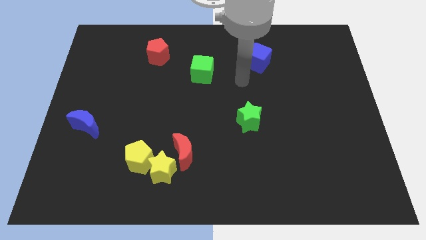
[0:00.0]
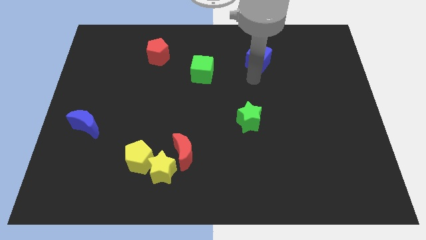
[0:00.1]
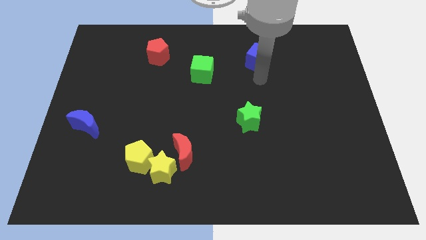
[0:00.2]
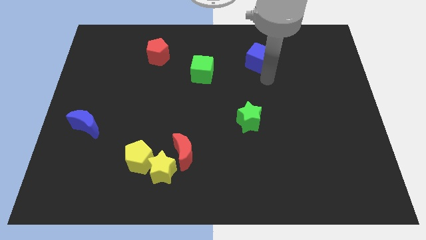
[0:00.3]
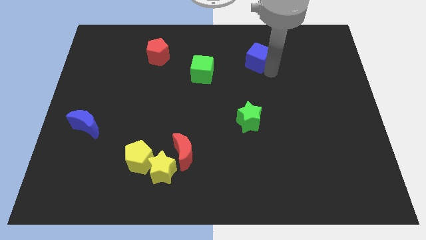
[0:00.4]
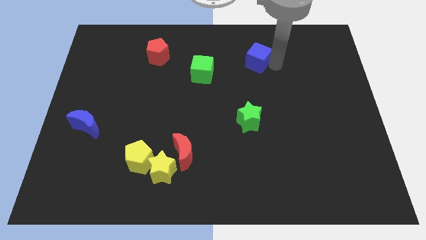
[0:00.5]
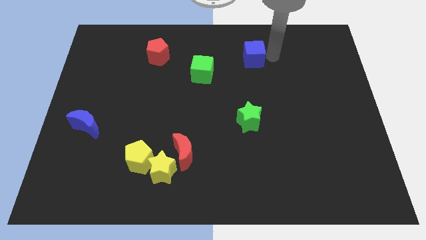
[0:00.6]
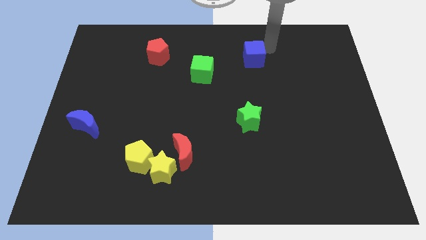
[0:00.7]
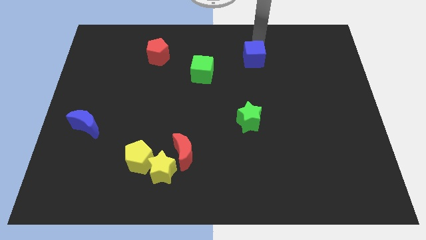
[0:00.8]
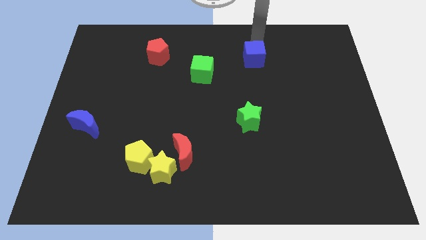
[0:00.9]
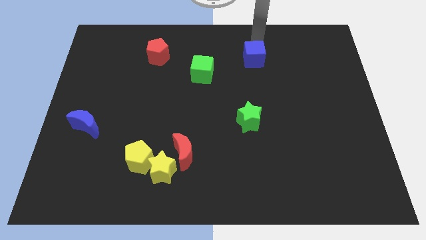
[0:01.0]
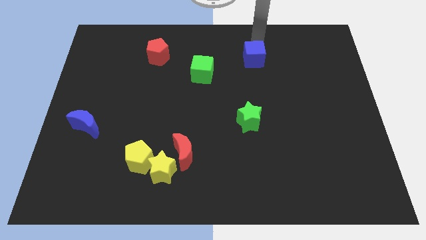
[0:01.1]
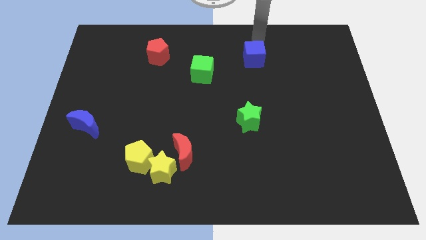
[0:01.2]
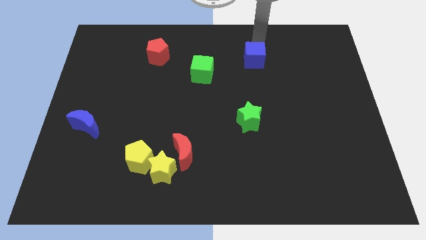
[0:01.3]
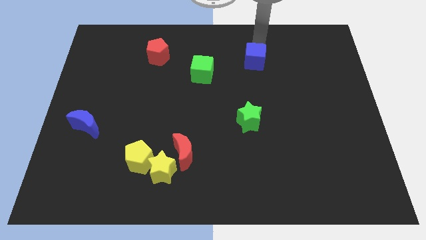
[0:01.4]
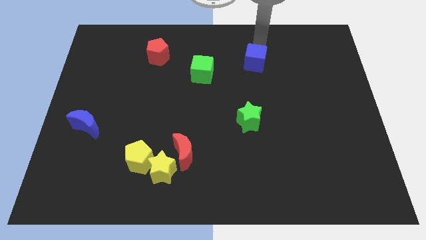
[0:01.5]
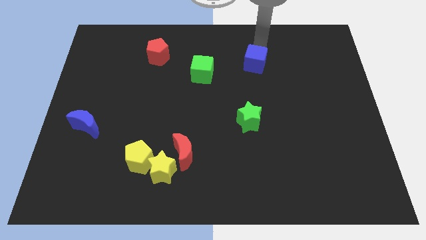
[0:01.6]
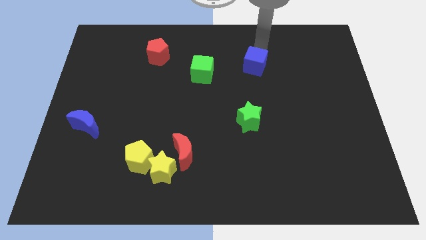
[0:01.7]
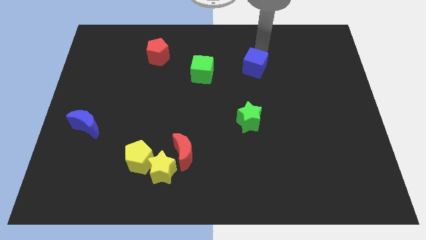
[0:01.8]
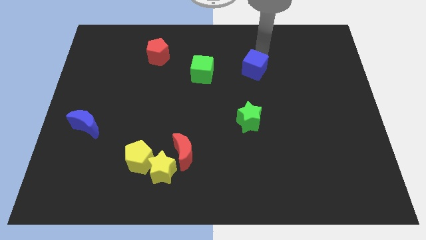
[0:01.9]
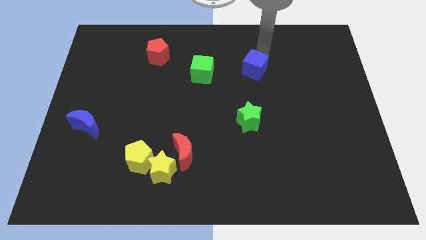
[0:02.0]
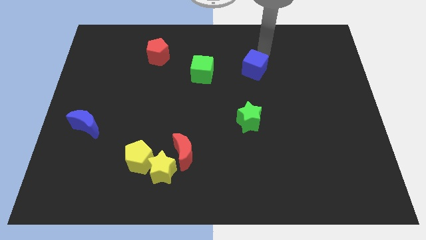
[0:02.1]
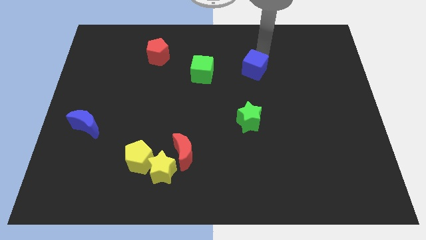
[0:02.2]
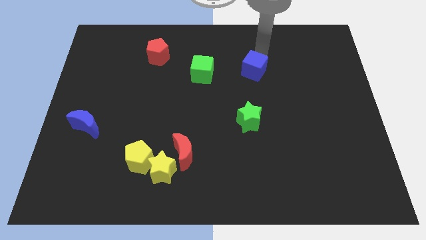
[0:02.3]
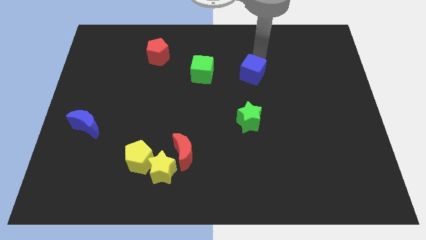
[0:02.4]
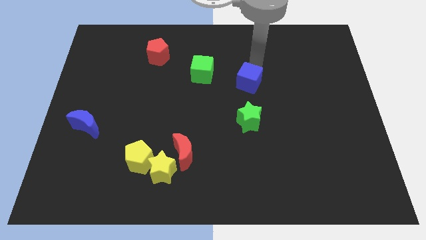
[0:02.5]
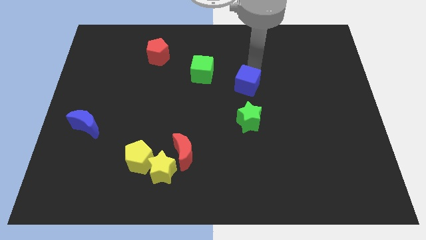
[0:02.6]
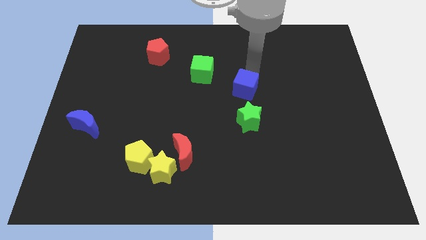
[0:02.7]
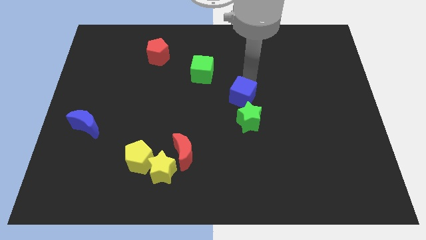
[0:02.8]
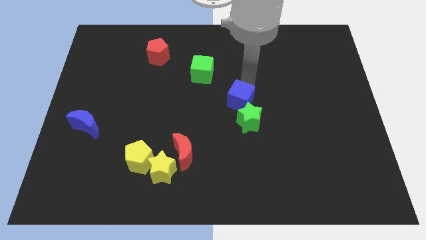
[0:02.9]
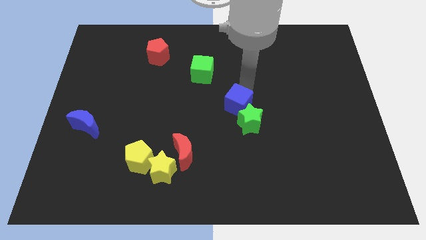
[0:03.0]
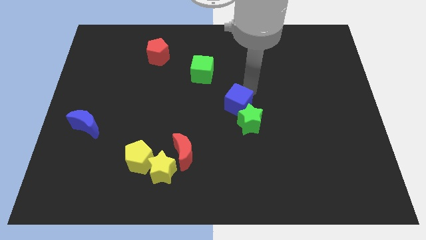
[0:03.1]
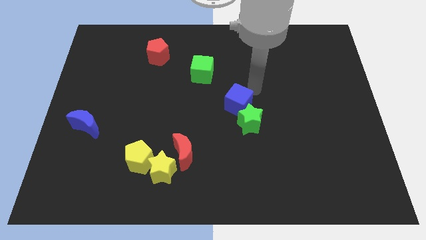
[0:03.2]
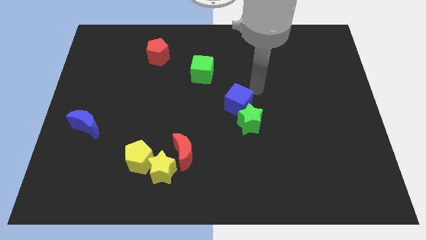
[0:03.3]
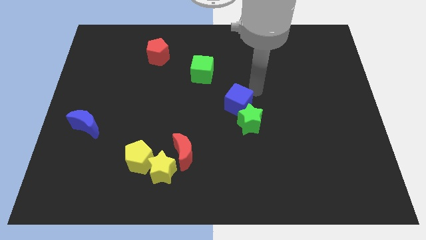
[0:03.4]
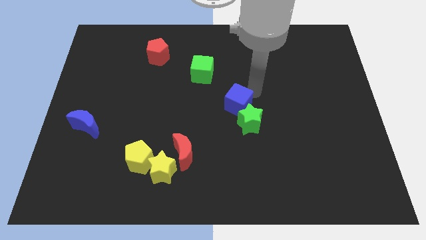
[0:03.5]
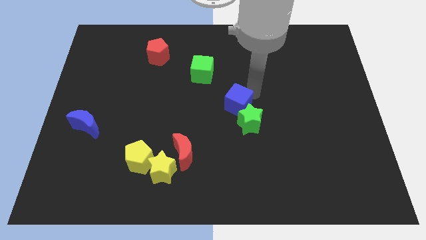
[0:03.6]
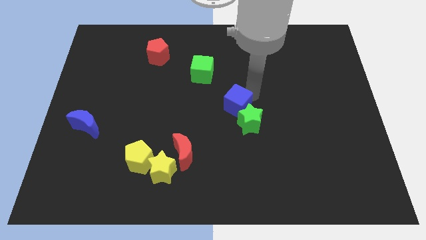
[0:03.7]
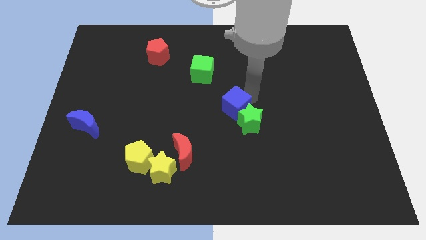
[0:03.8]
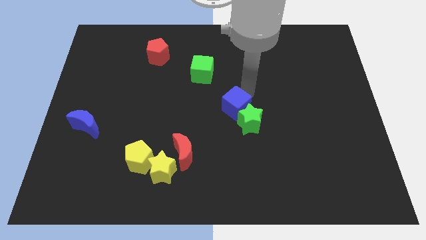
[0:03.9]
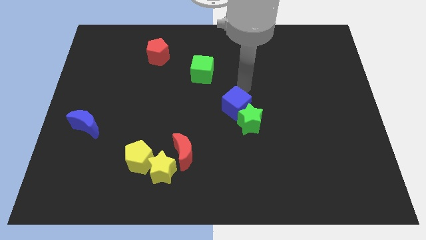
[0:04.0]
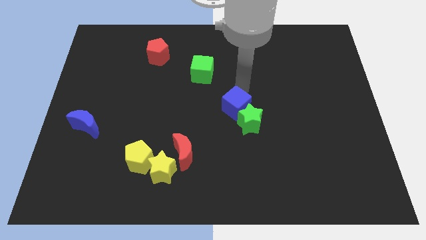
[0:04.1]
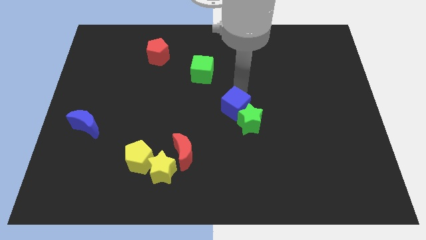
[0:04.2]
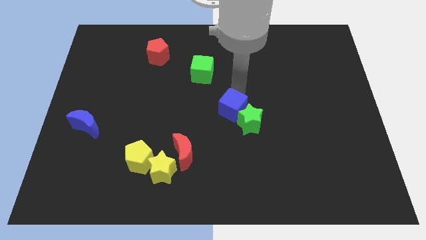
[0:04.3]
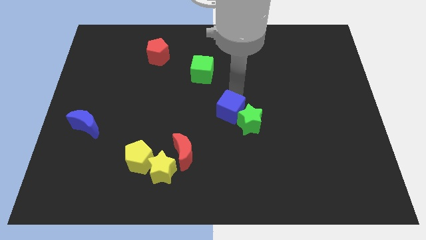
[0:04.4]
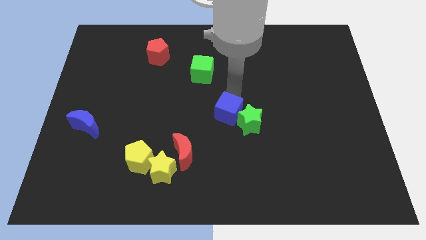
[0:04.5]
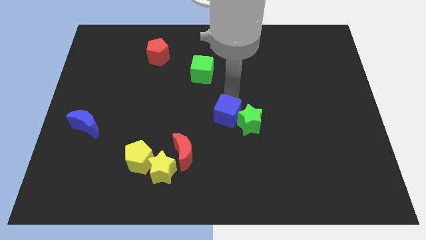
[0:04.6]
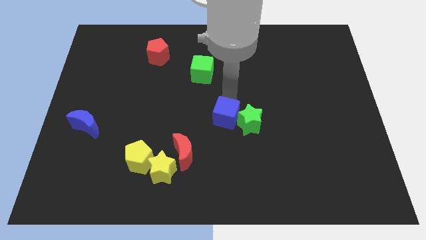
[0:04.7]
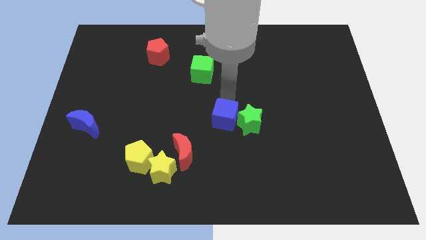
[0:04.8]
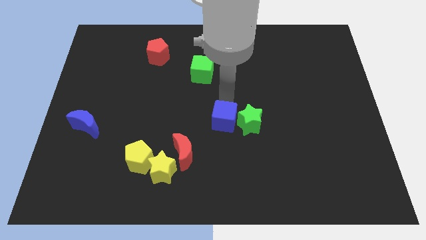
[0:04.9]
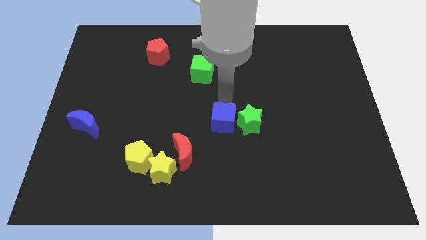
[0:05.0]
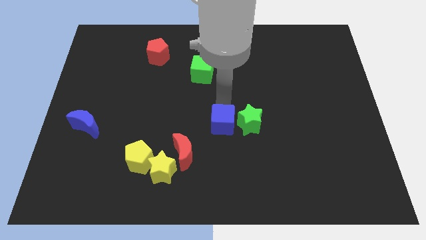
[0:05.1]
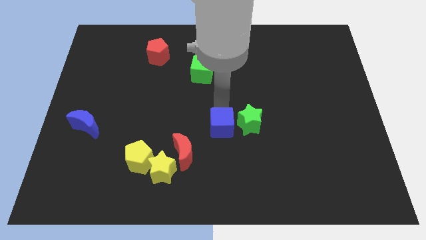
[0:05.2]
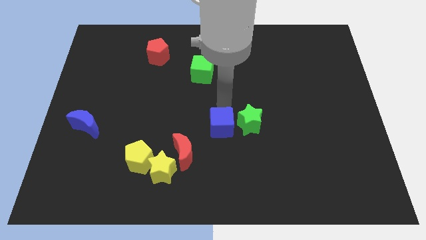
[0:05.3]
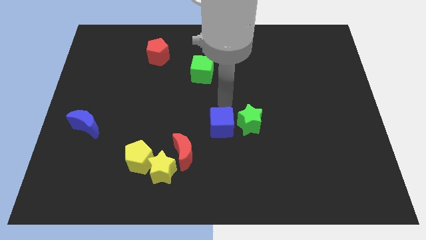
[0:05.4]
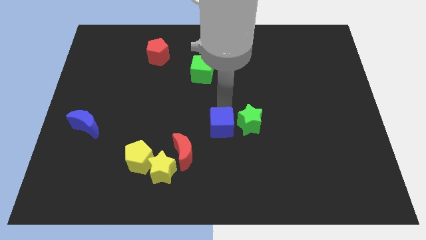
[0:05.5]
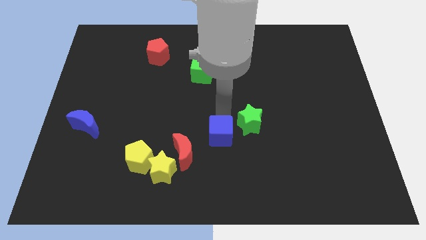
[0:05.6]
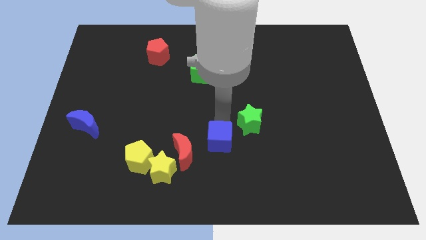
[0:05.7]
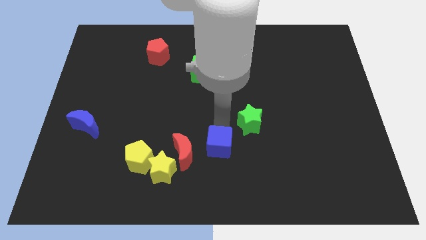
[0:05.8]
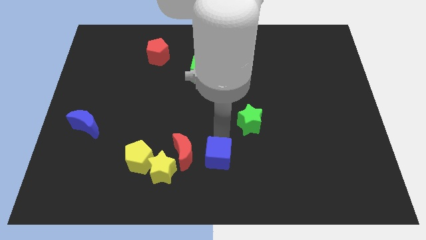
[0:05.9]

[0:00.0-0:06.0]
move the blue cube diagonally down and to the right of the red moon

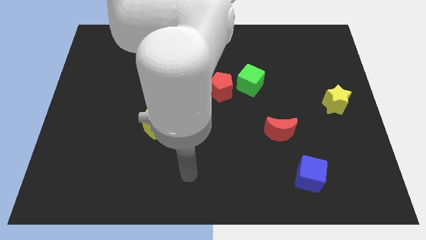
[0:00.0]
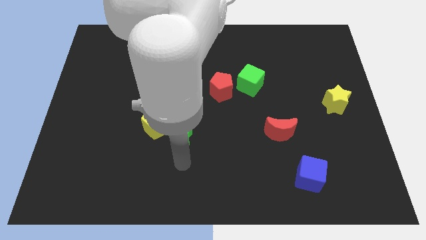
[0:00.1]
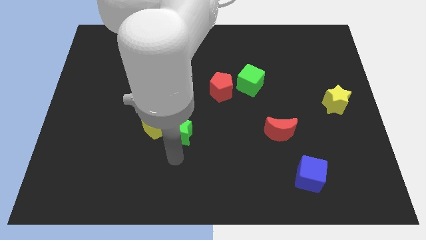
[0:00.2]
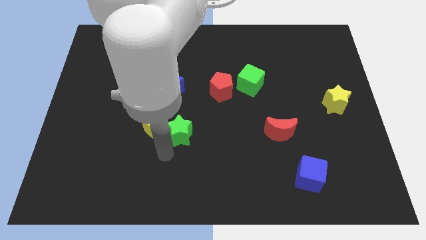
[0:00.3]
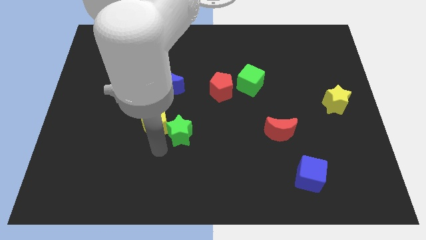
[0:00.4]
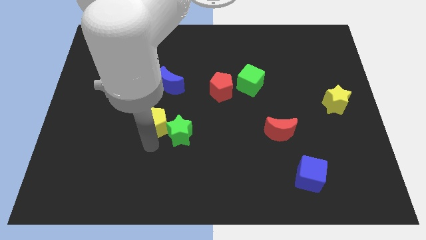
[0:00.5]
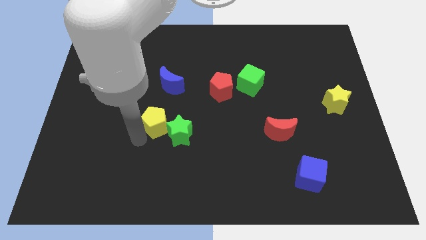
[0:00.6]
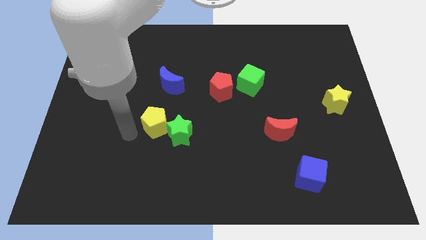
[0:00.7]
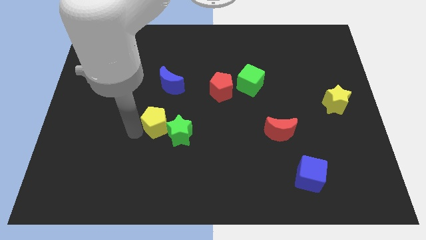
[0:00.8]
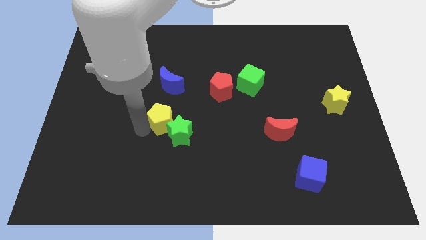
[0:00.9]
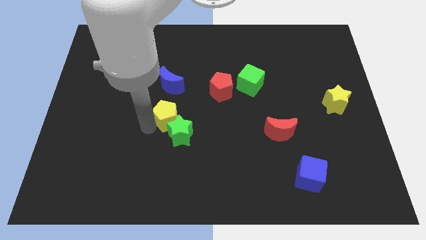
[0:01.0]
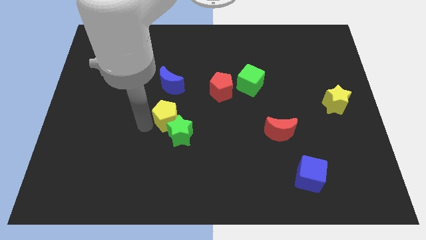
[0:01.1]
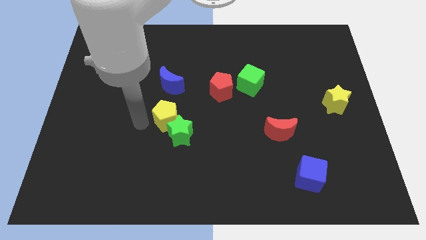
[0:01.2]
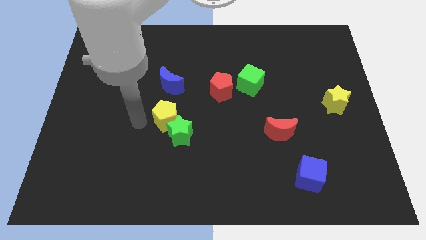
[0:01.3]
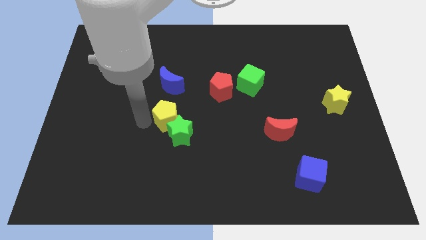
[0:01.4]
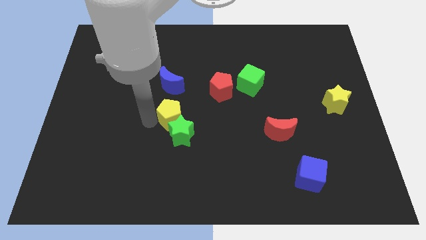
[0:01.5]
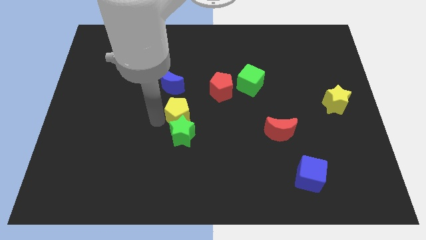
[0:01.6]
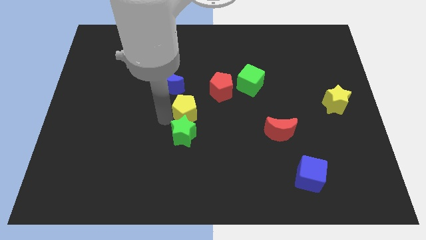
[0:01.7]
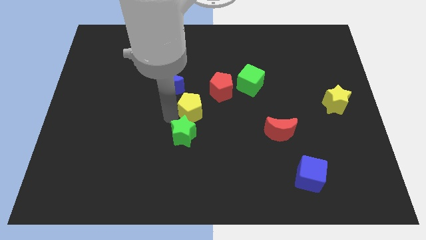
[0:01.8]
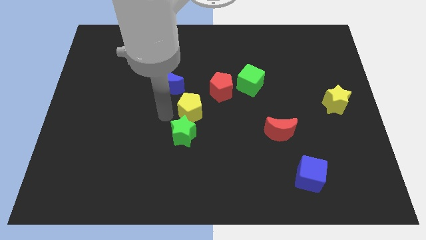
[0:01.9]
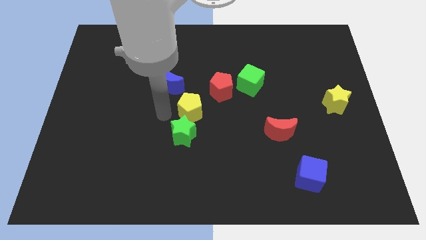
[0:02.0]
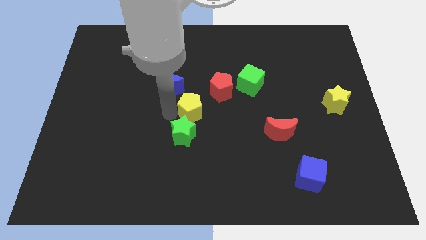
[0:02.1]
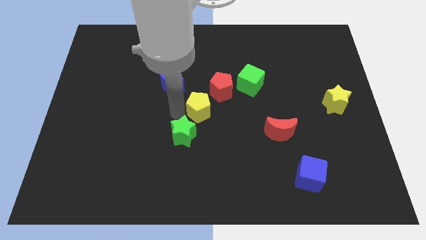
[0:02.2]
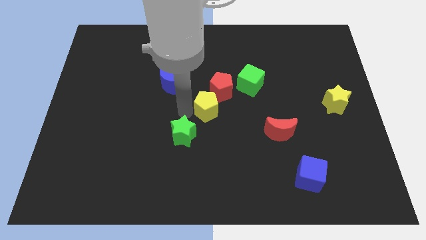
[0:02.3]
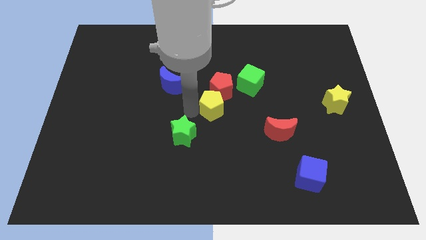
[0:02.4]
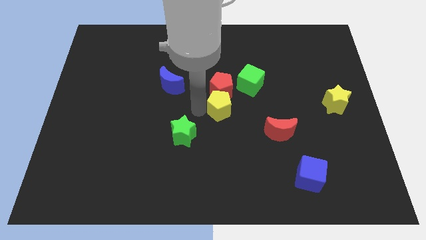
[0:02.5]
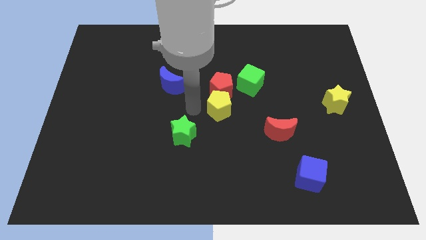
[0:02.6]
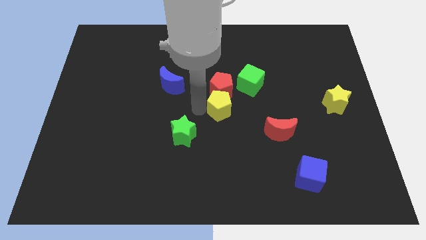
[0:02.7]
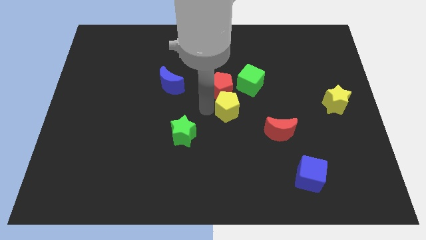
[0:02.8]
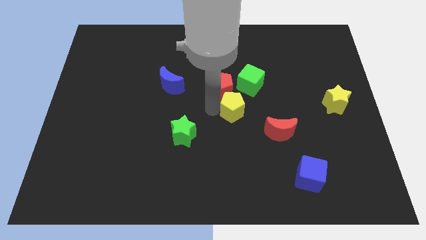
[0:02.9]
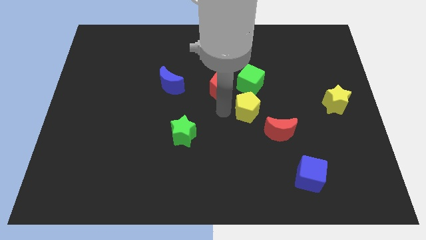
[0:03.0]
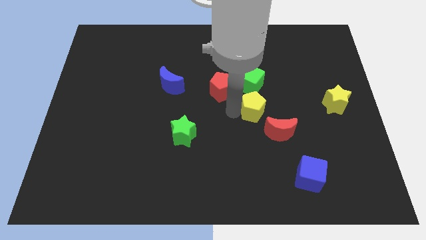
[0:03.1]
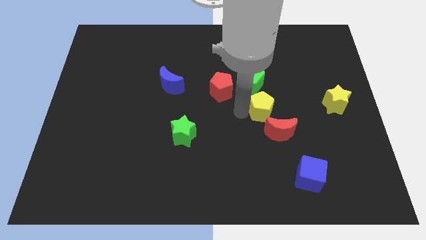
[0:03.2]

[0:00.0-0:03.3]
move the yellow pentagon above the red moon
